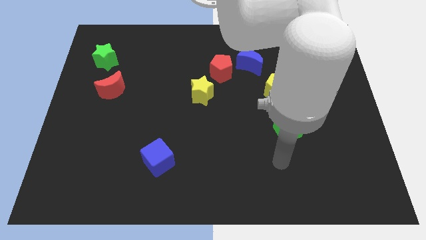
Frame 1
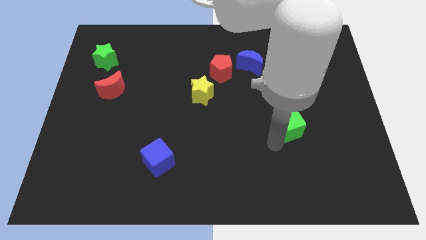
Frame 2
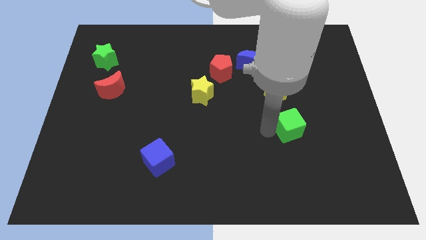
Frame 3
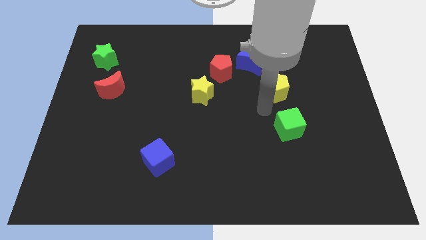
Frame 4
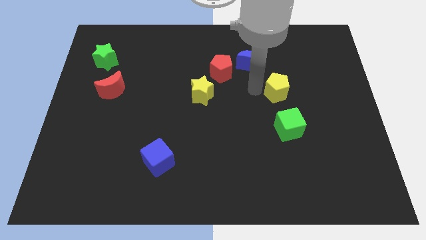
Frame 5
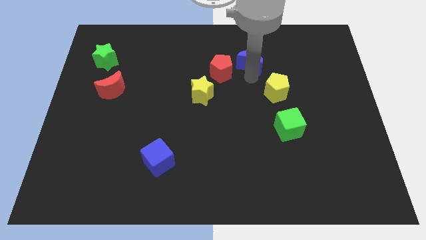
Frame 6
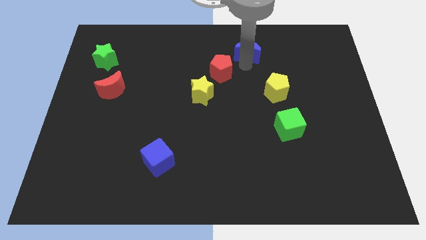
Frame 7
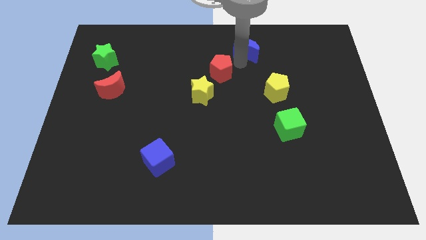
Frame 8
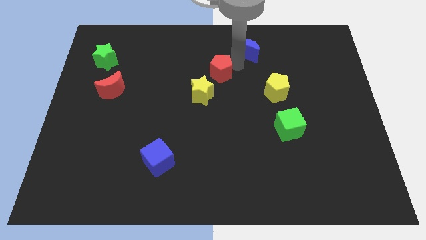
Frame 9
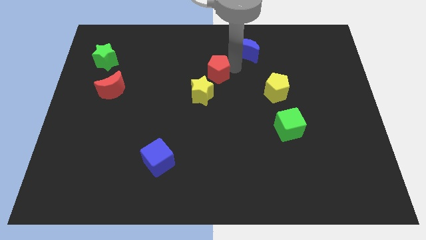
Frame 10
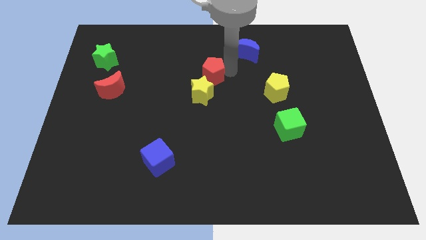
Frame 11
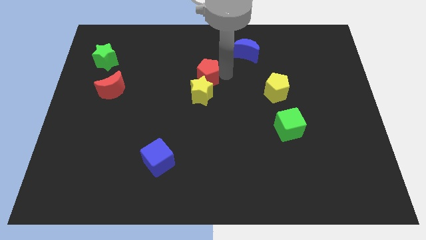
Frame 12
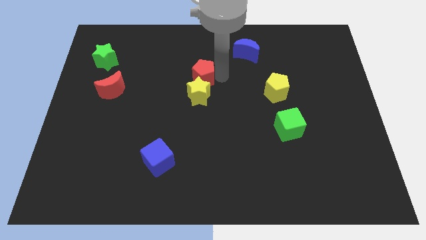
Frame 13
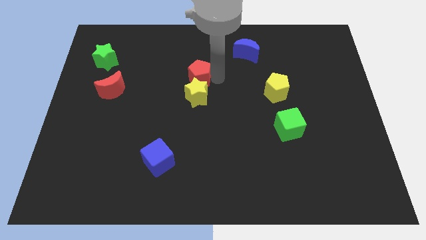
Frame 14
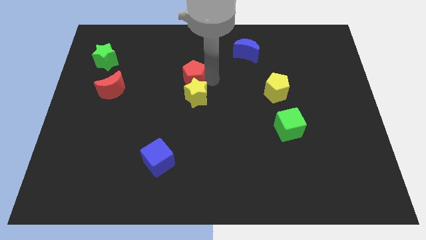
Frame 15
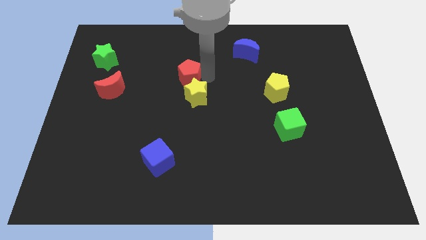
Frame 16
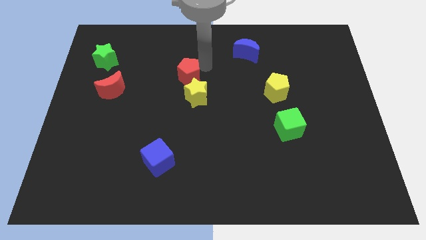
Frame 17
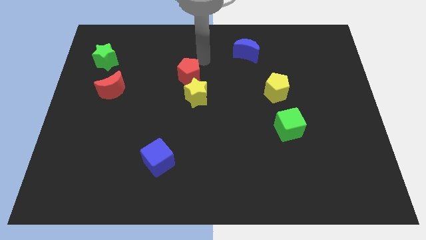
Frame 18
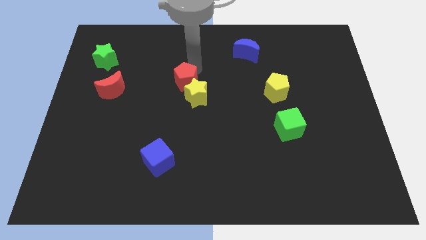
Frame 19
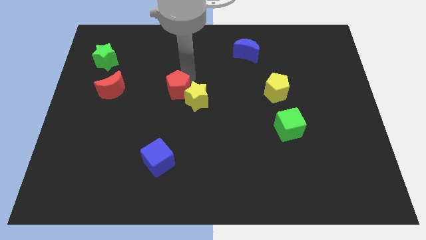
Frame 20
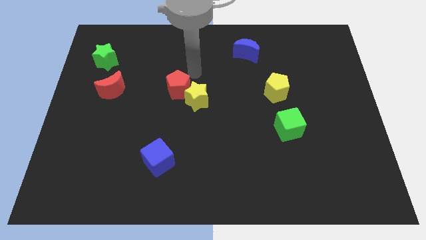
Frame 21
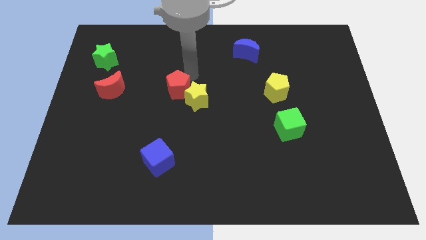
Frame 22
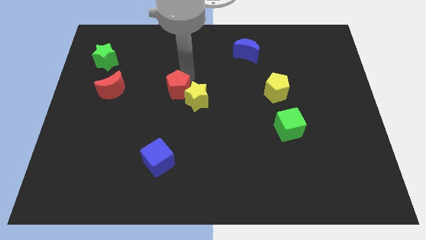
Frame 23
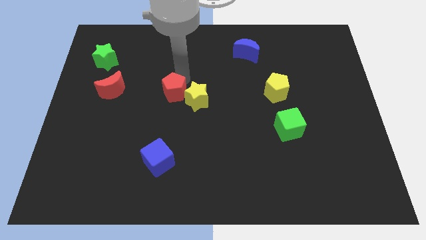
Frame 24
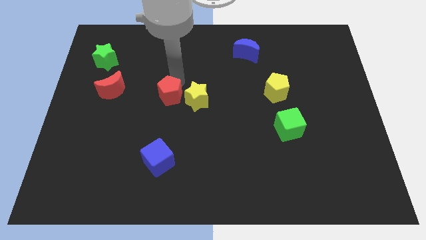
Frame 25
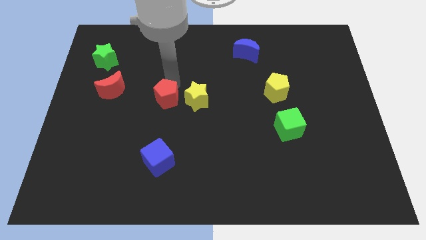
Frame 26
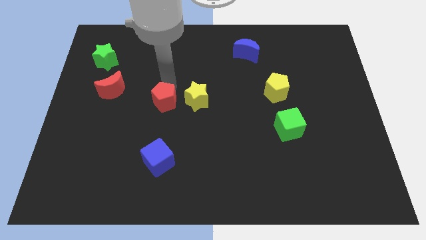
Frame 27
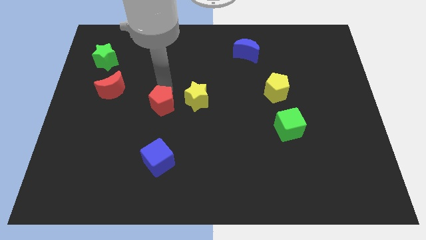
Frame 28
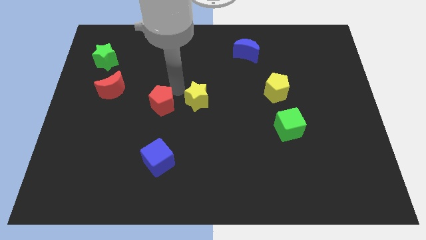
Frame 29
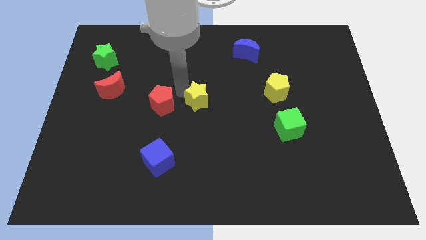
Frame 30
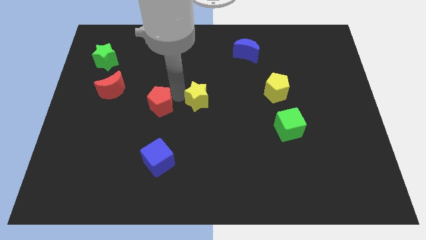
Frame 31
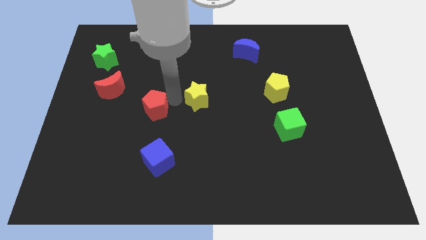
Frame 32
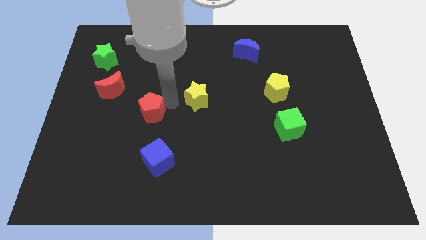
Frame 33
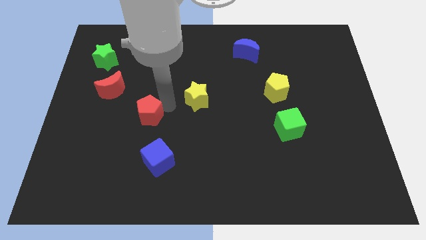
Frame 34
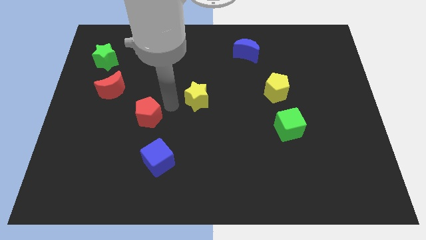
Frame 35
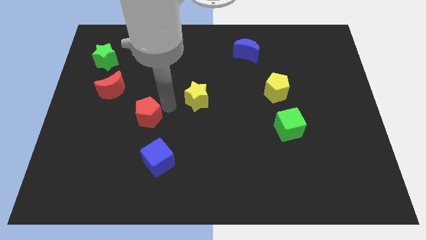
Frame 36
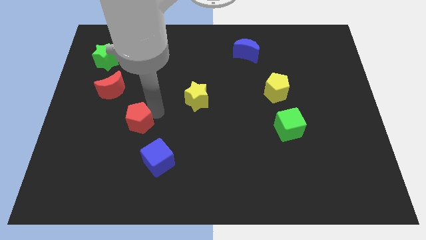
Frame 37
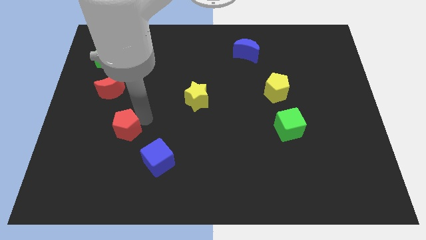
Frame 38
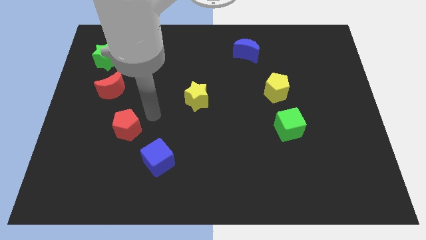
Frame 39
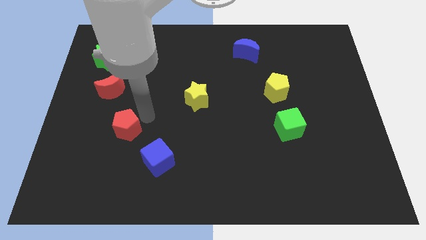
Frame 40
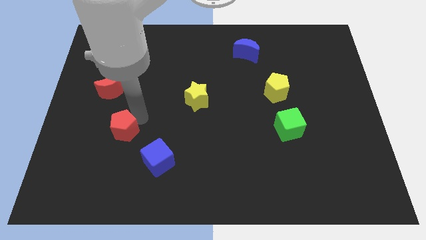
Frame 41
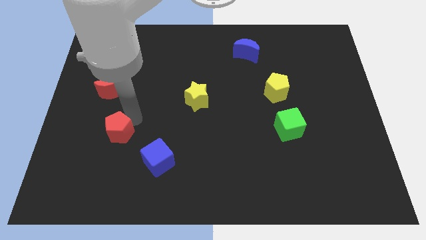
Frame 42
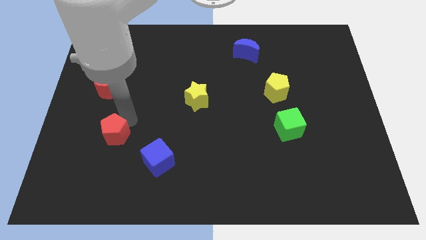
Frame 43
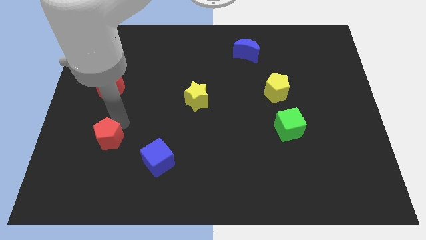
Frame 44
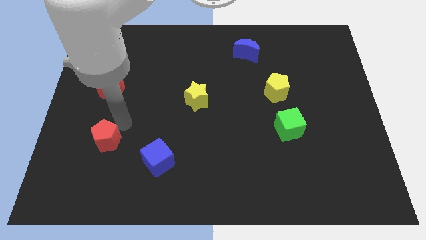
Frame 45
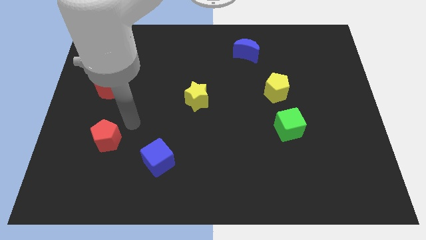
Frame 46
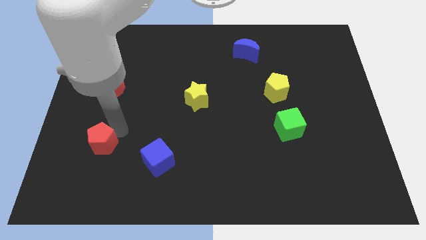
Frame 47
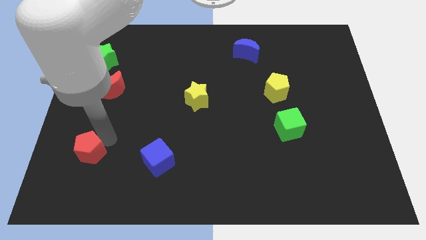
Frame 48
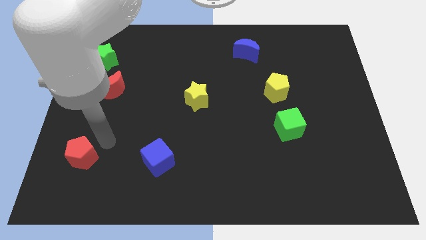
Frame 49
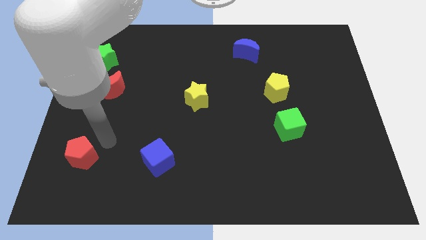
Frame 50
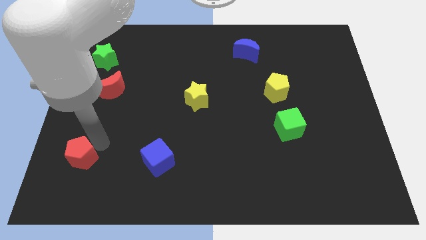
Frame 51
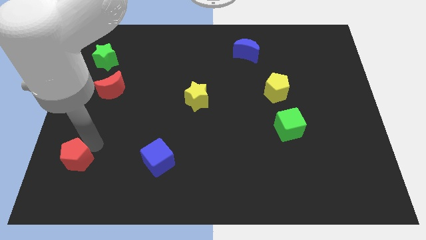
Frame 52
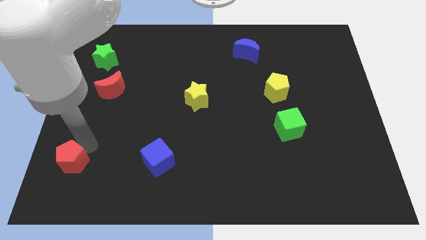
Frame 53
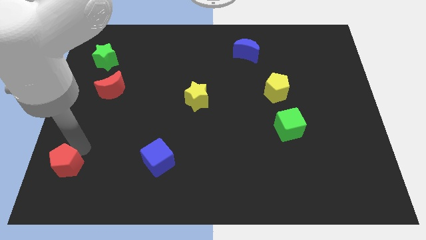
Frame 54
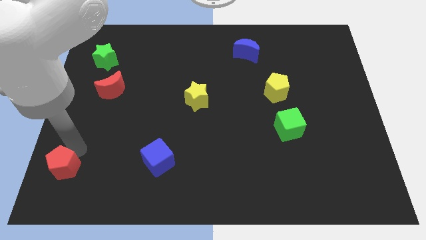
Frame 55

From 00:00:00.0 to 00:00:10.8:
move the red pentagon to the lower left corner

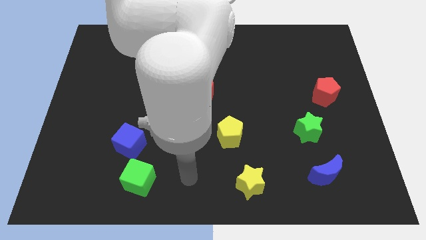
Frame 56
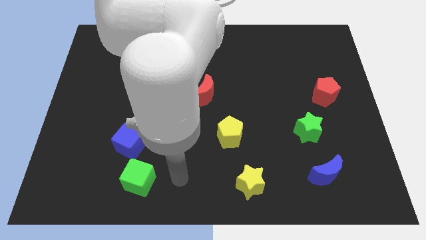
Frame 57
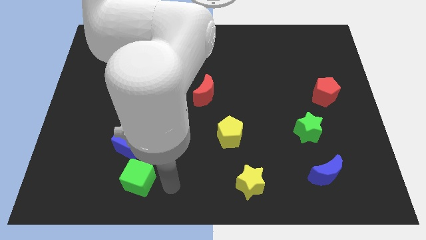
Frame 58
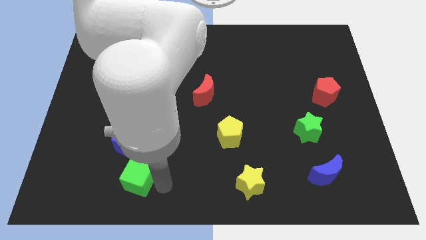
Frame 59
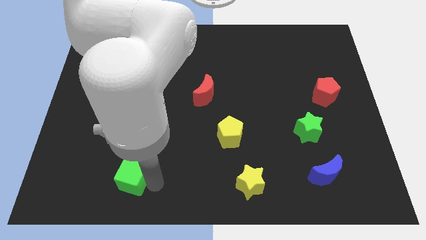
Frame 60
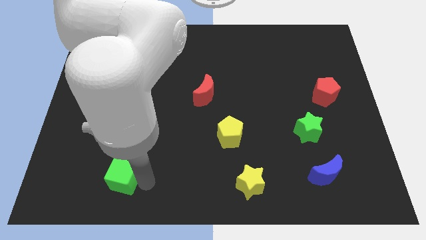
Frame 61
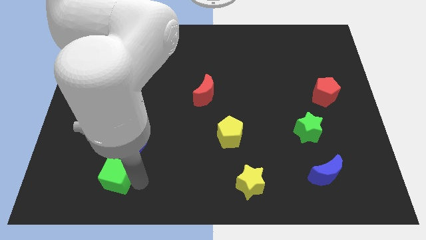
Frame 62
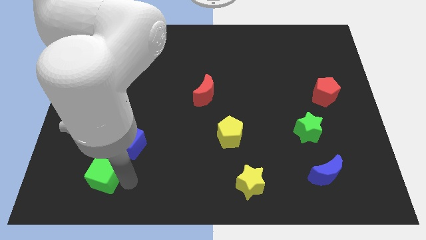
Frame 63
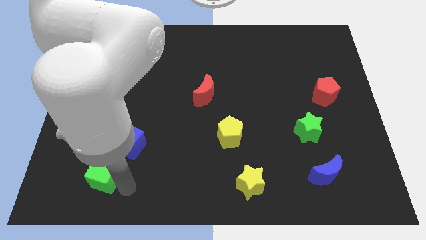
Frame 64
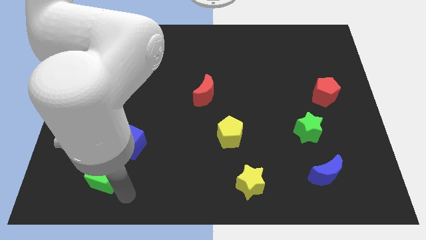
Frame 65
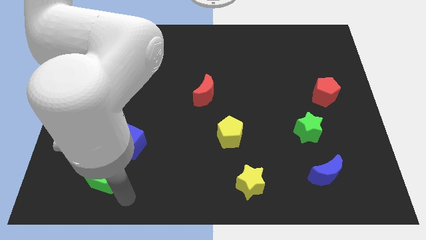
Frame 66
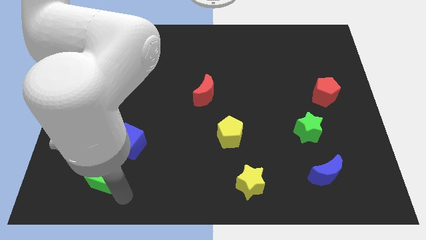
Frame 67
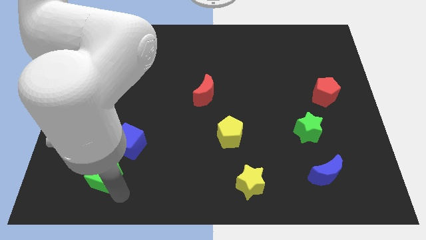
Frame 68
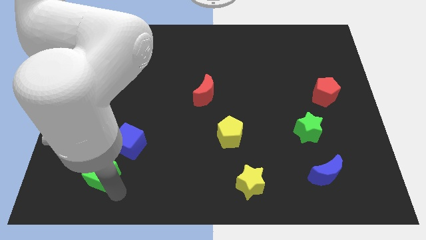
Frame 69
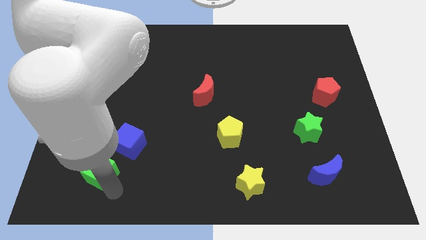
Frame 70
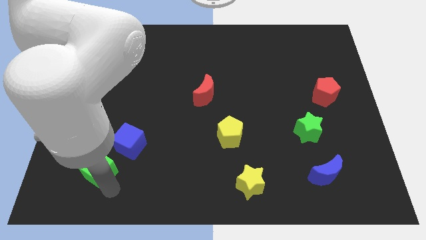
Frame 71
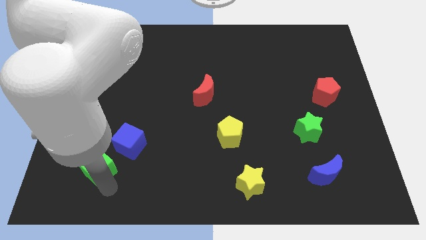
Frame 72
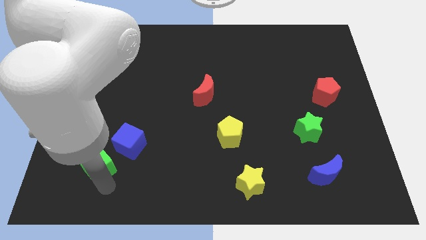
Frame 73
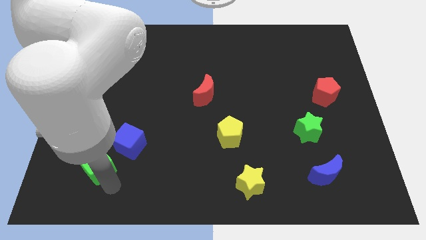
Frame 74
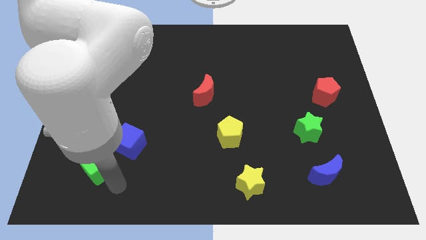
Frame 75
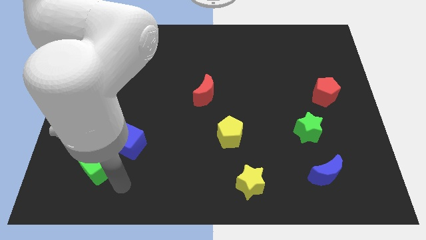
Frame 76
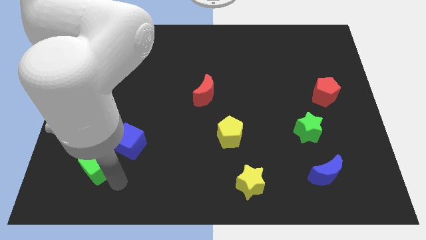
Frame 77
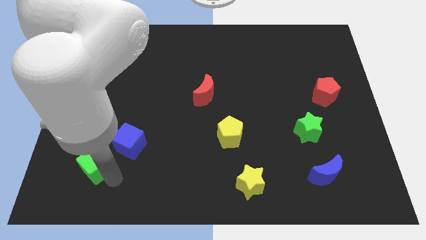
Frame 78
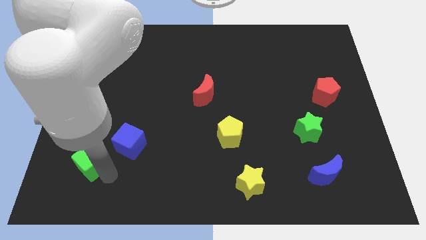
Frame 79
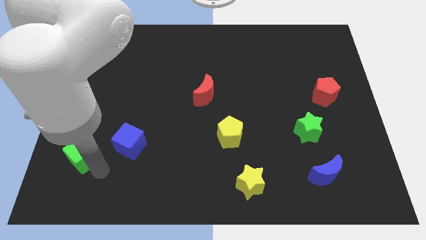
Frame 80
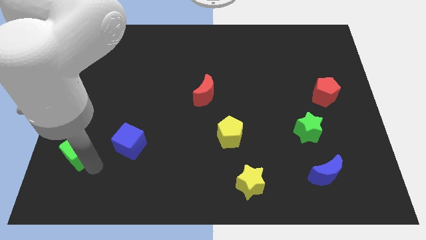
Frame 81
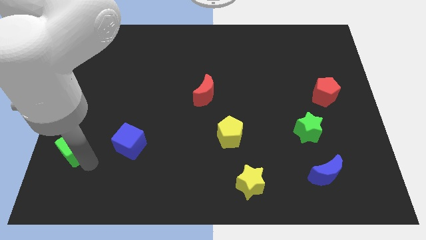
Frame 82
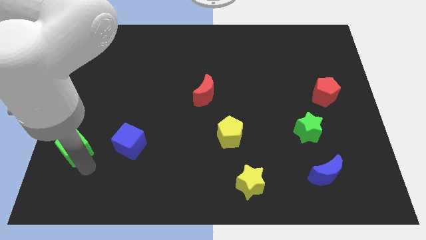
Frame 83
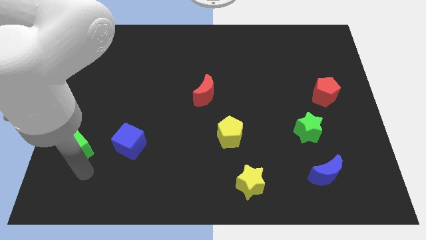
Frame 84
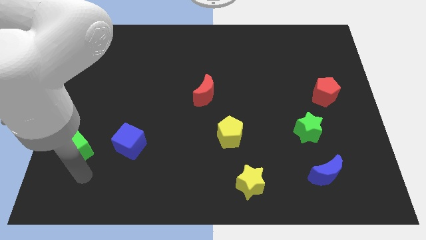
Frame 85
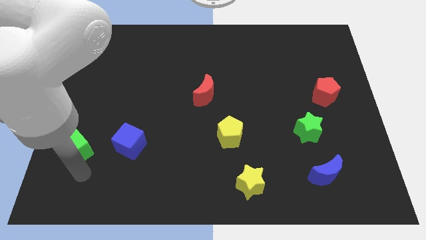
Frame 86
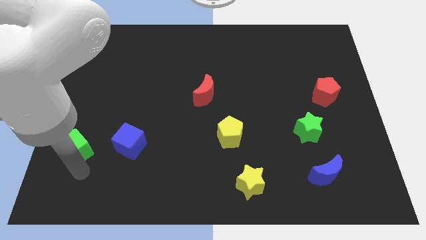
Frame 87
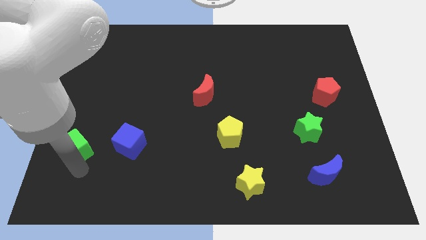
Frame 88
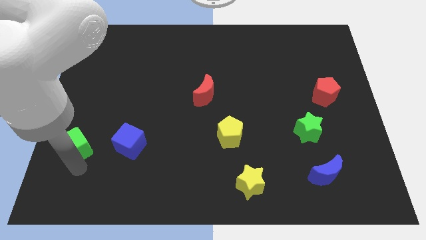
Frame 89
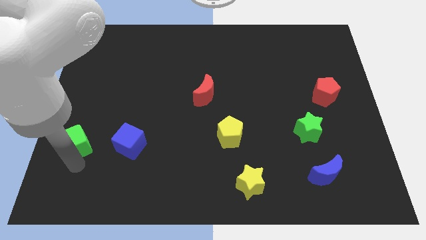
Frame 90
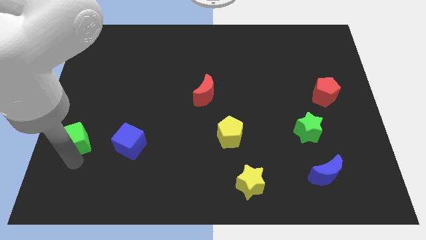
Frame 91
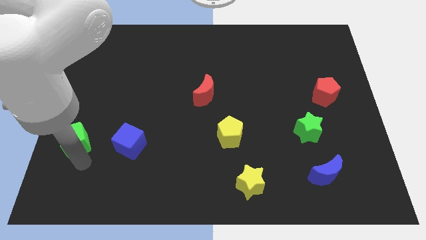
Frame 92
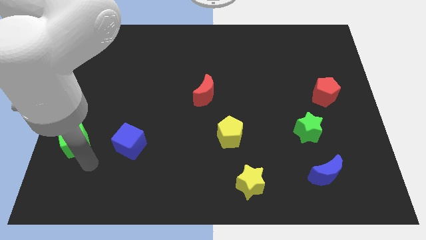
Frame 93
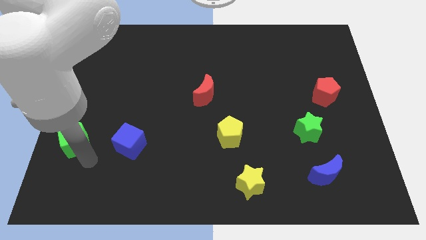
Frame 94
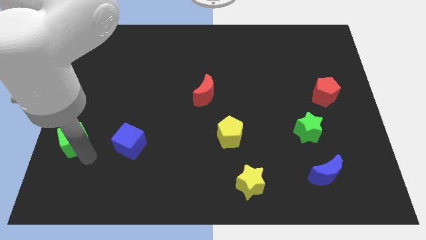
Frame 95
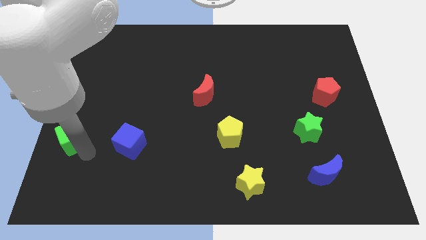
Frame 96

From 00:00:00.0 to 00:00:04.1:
push the green cube to the left side of the board
